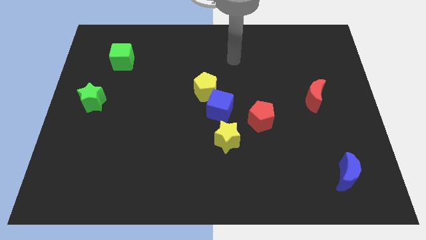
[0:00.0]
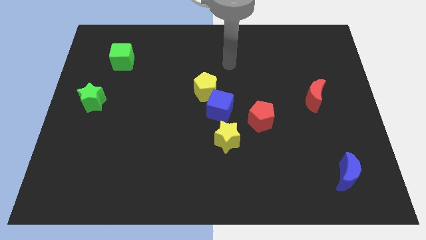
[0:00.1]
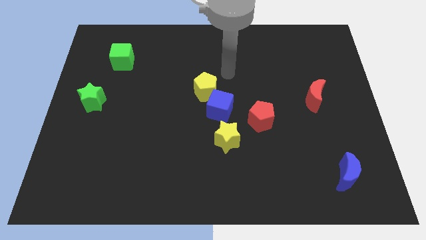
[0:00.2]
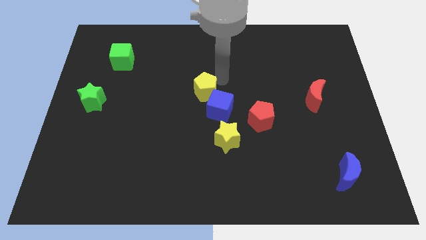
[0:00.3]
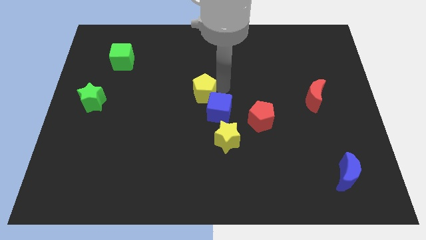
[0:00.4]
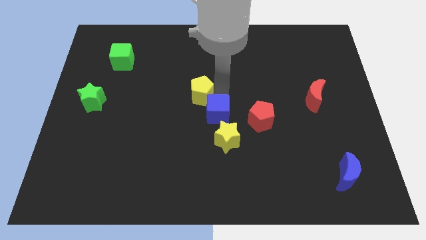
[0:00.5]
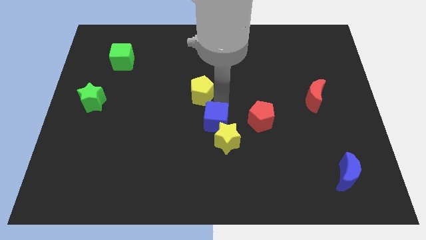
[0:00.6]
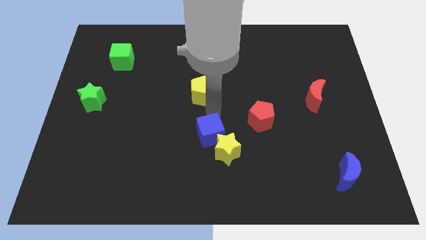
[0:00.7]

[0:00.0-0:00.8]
pull the yellow pentagon apart from the blue cube

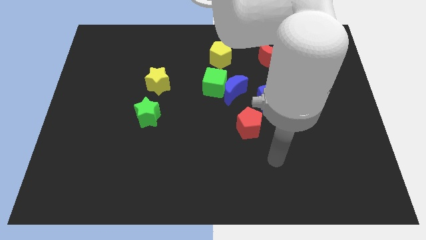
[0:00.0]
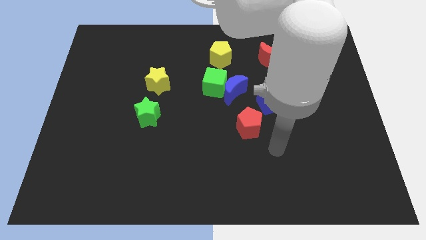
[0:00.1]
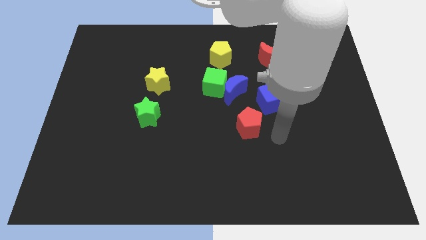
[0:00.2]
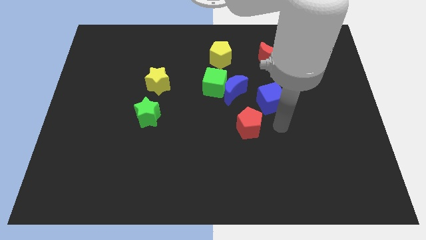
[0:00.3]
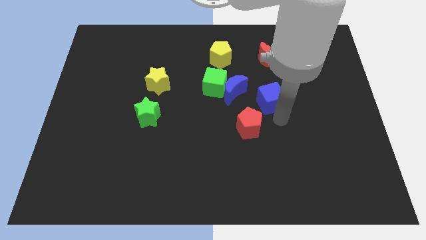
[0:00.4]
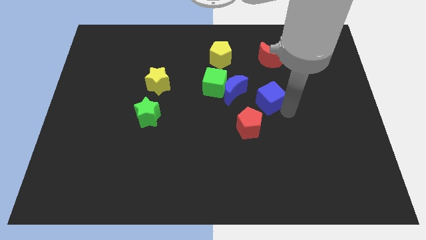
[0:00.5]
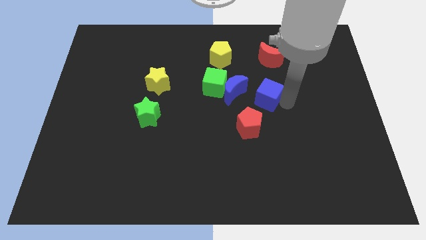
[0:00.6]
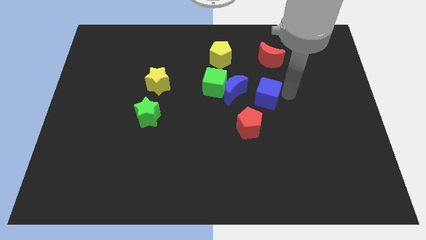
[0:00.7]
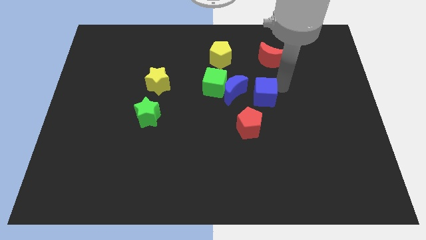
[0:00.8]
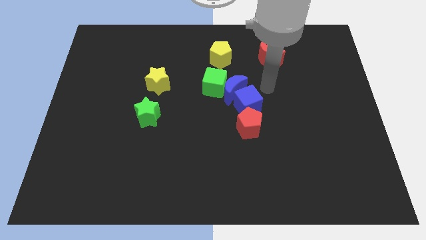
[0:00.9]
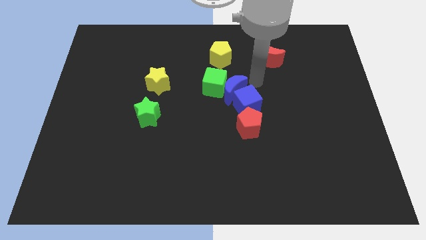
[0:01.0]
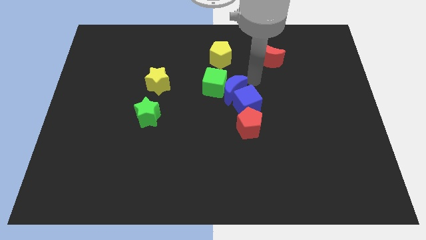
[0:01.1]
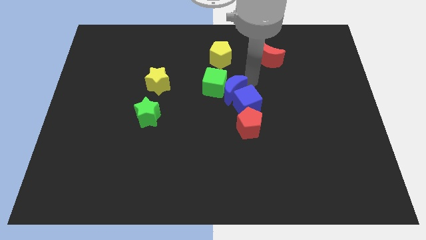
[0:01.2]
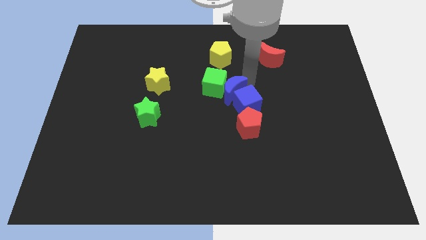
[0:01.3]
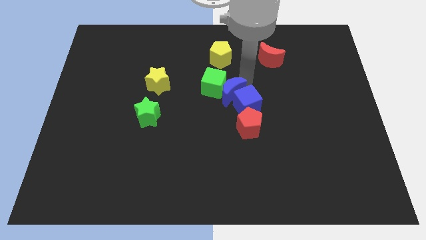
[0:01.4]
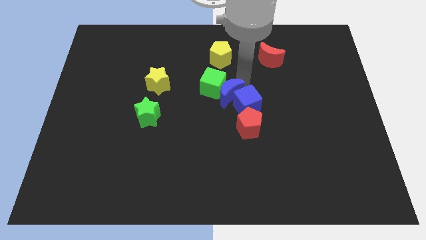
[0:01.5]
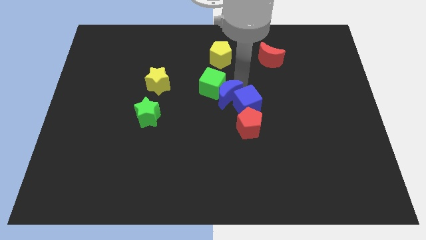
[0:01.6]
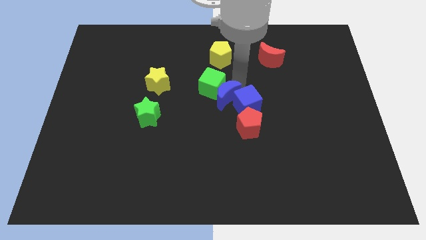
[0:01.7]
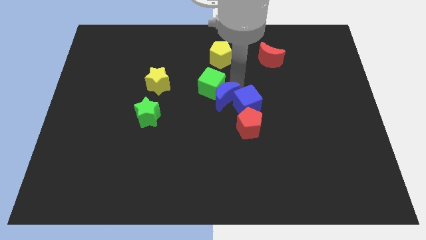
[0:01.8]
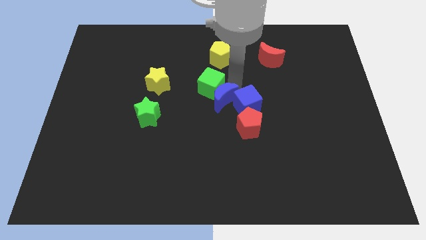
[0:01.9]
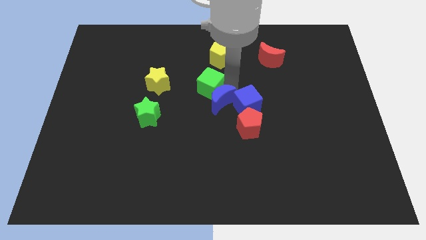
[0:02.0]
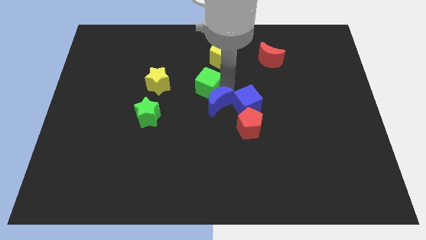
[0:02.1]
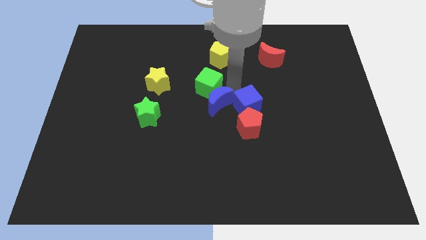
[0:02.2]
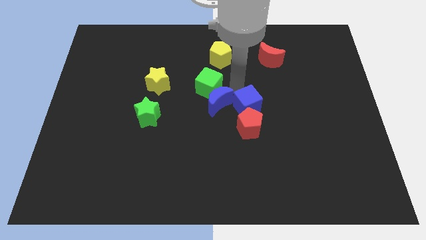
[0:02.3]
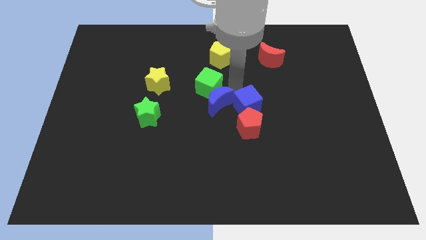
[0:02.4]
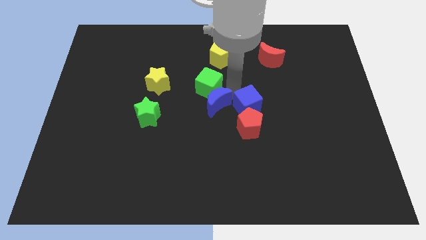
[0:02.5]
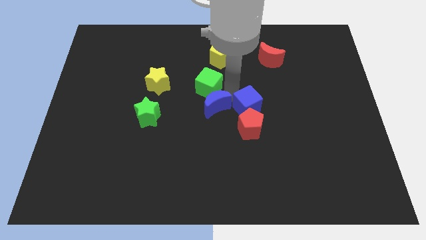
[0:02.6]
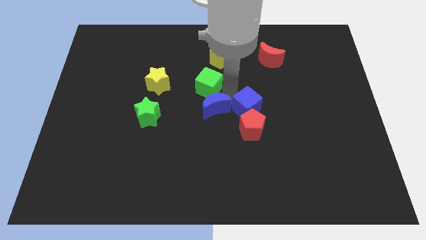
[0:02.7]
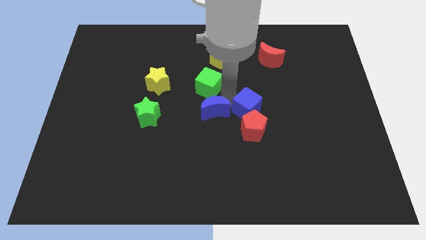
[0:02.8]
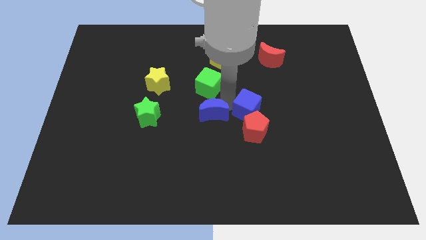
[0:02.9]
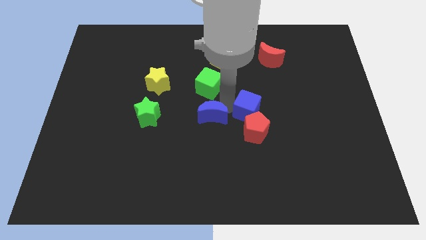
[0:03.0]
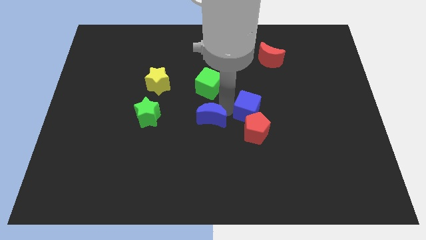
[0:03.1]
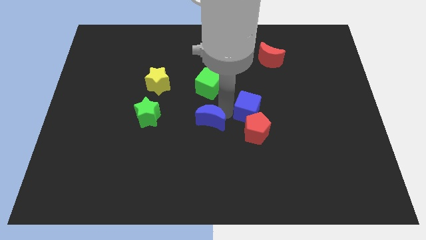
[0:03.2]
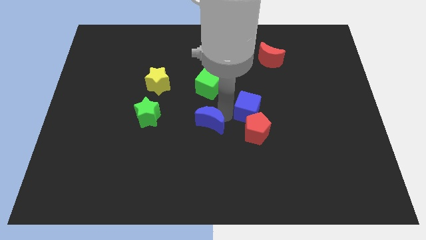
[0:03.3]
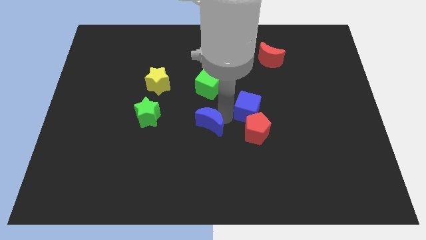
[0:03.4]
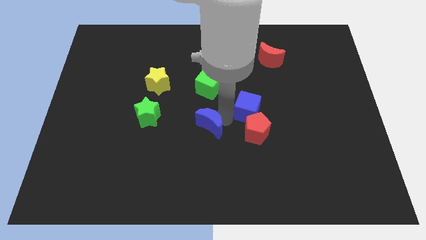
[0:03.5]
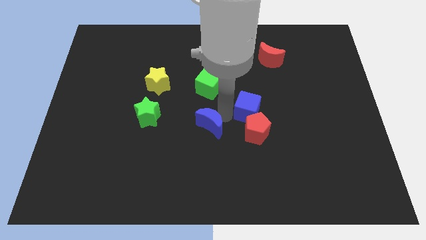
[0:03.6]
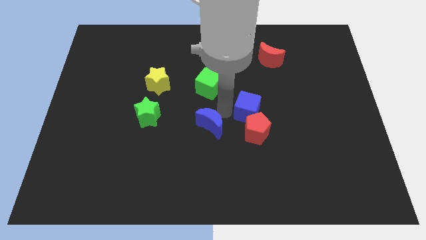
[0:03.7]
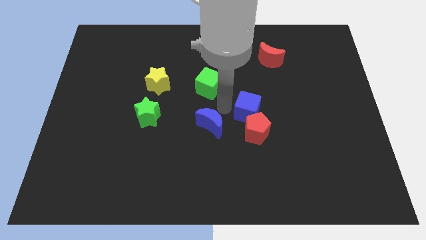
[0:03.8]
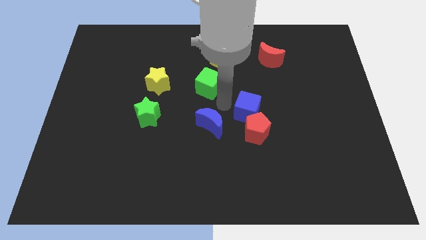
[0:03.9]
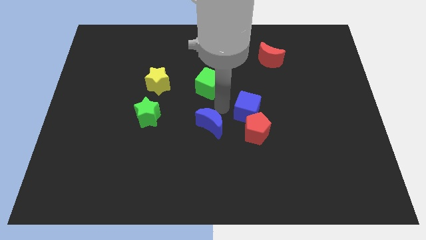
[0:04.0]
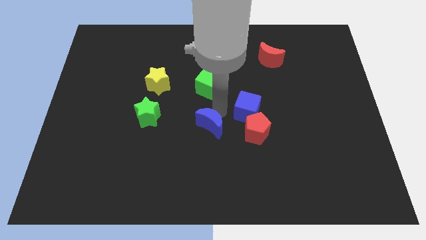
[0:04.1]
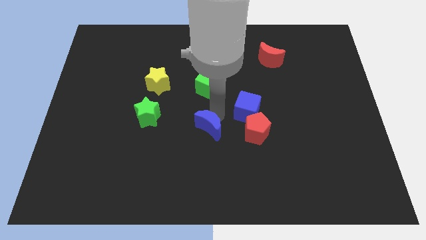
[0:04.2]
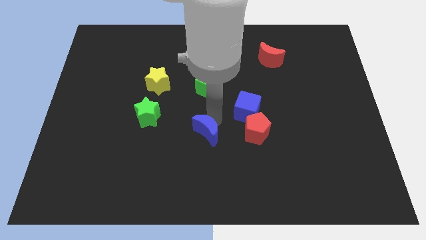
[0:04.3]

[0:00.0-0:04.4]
pull the blue moon apart from the green cube and blue cube

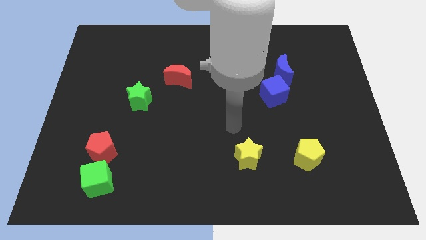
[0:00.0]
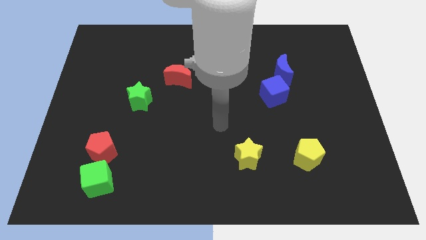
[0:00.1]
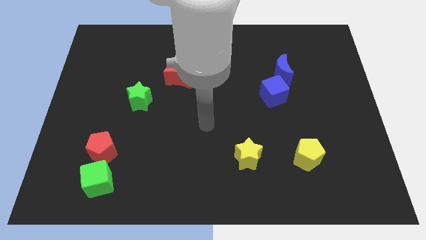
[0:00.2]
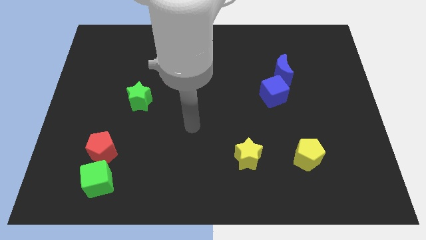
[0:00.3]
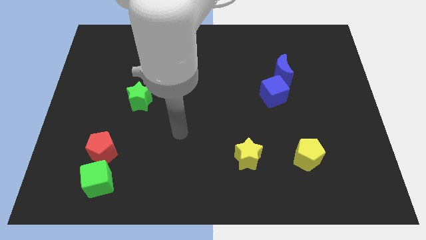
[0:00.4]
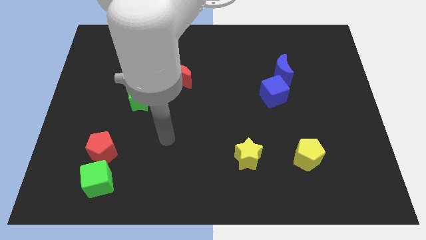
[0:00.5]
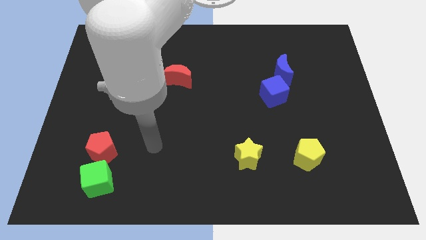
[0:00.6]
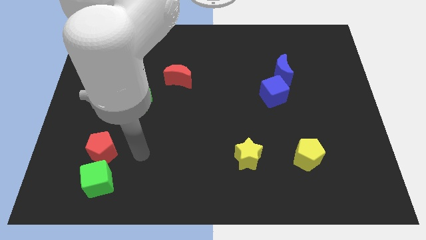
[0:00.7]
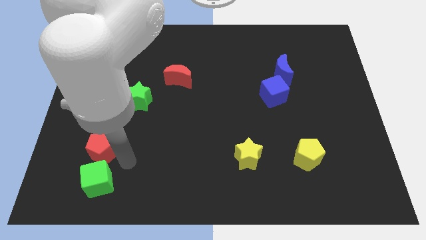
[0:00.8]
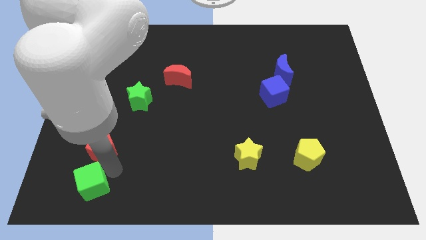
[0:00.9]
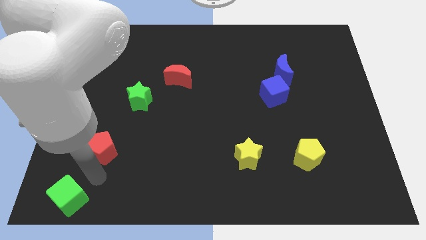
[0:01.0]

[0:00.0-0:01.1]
separate the red pentagon from the green cube

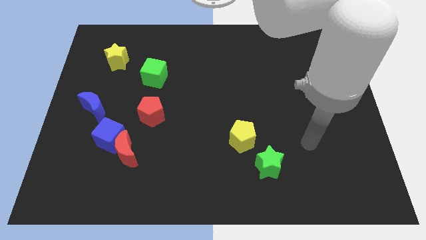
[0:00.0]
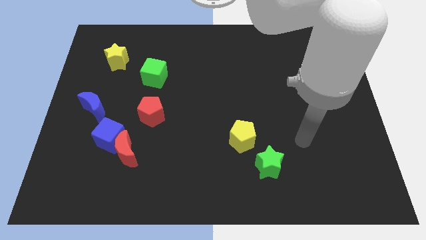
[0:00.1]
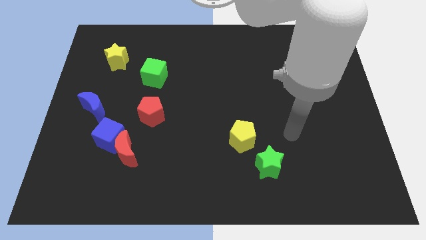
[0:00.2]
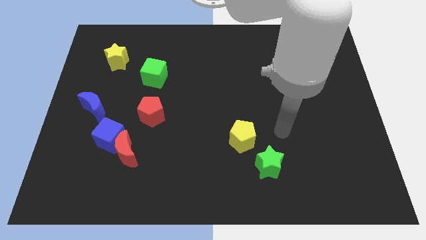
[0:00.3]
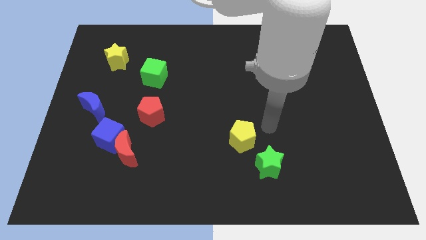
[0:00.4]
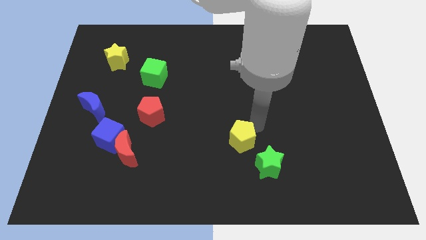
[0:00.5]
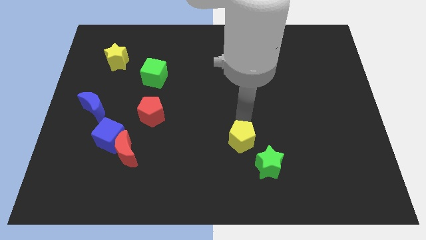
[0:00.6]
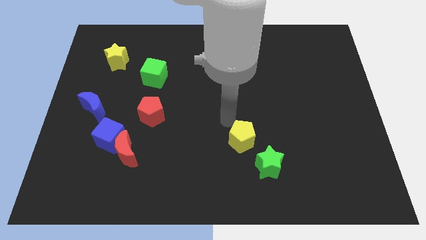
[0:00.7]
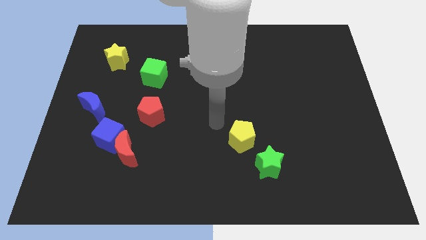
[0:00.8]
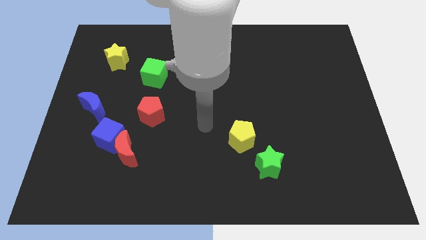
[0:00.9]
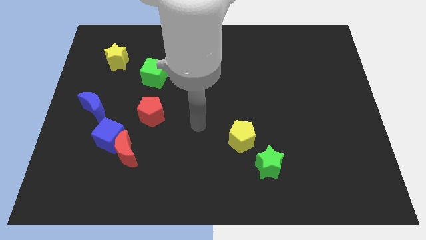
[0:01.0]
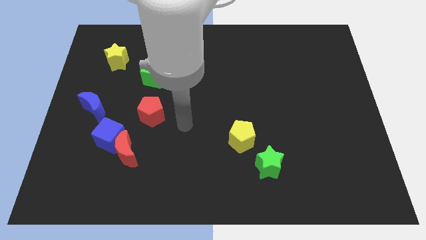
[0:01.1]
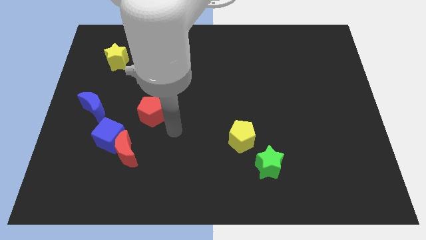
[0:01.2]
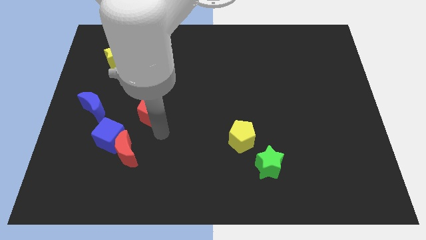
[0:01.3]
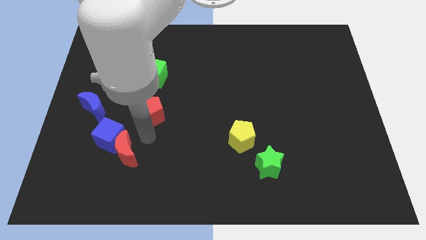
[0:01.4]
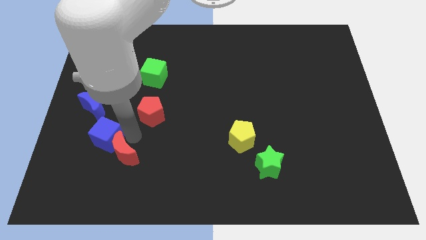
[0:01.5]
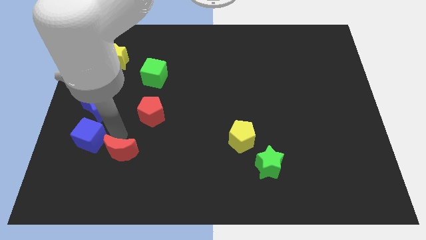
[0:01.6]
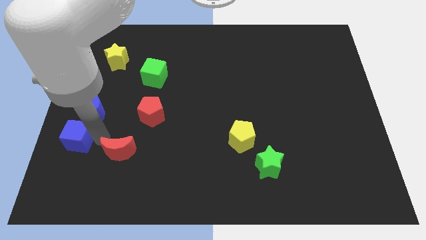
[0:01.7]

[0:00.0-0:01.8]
separate the red moon from the blue cube

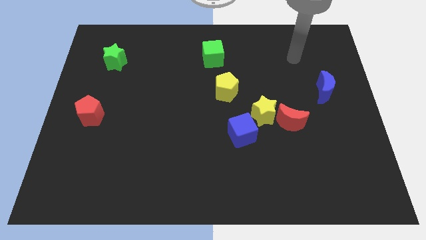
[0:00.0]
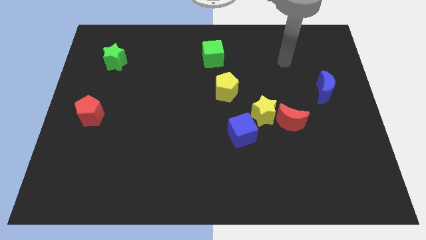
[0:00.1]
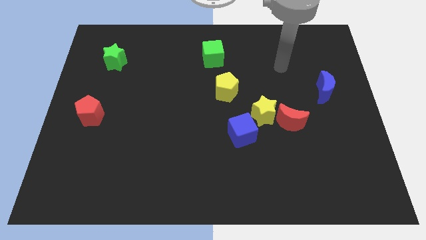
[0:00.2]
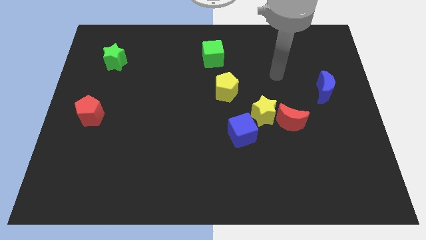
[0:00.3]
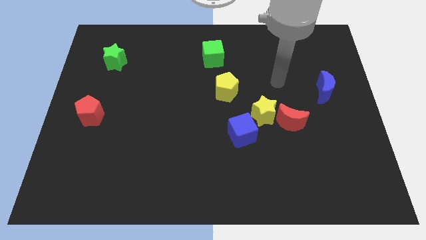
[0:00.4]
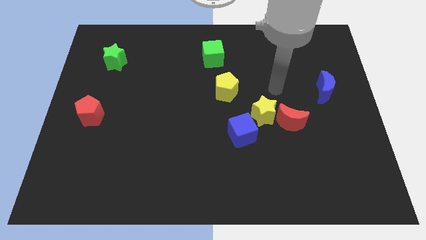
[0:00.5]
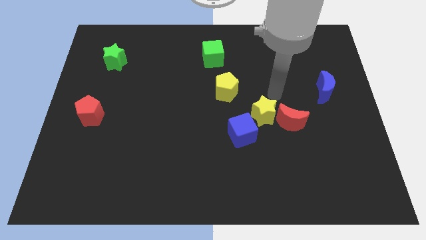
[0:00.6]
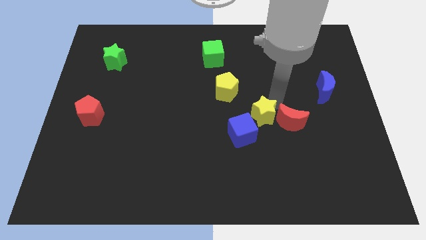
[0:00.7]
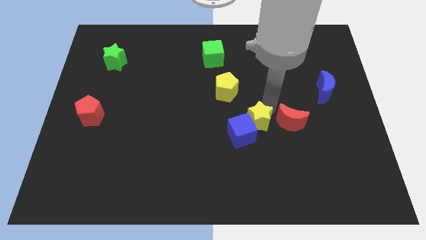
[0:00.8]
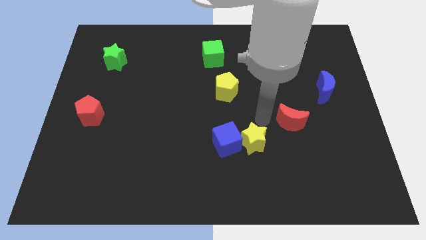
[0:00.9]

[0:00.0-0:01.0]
pull the red moon apart from the yellow star

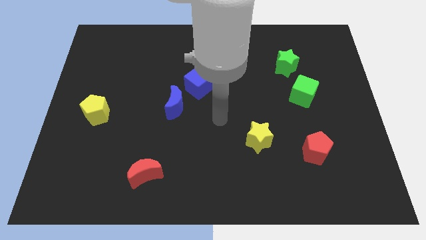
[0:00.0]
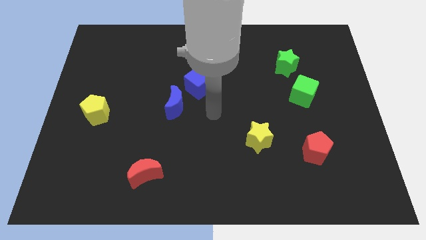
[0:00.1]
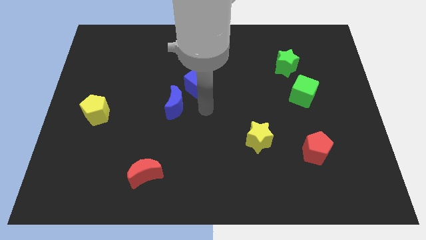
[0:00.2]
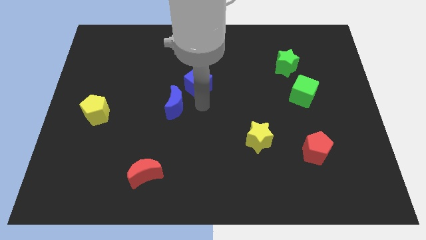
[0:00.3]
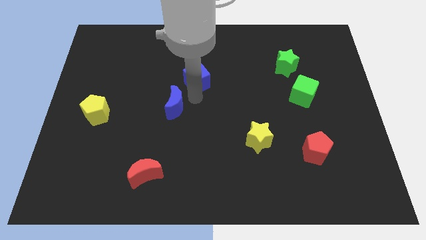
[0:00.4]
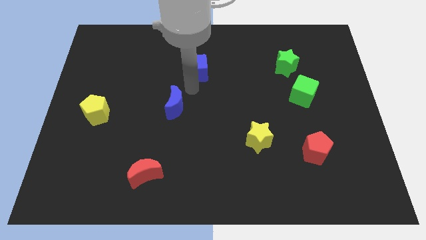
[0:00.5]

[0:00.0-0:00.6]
pull the blue moon apart from the blue cube
